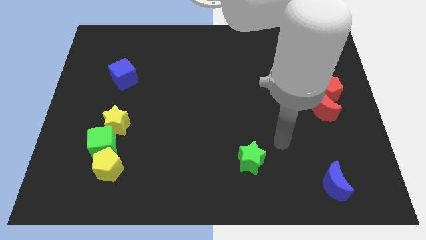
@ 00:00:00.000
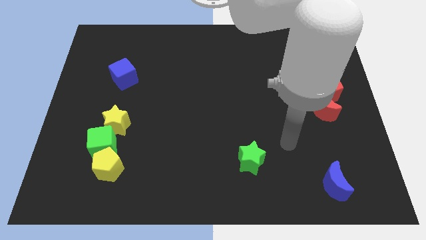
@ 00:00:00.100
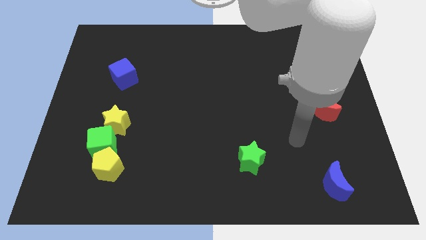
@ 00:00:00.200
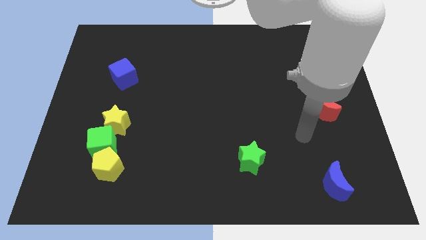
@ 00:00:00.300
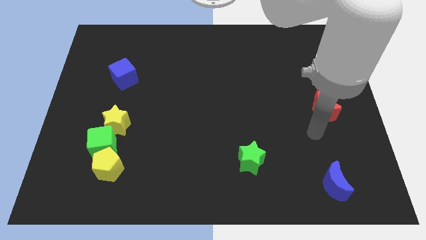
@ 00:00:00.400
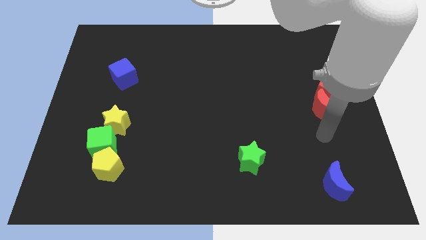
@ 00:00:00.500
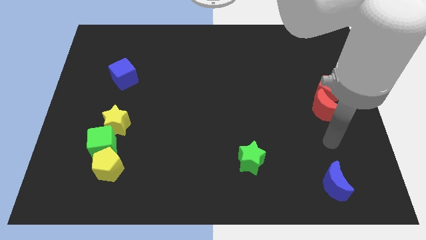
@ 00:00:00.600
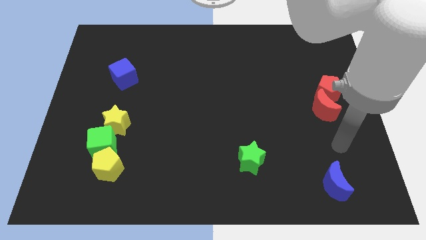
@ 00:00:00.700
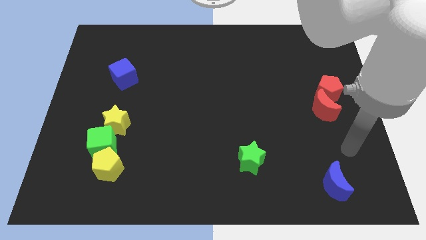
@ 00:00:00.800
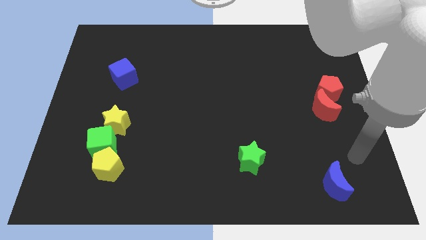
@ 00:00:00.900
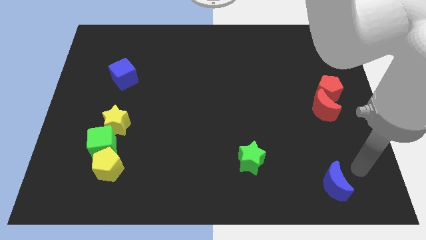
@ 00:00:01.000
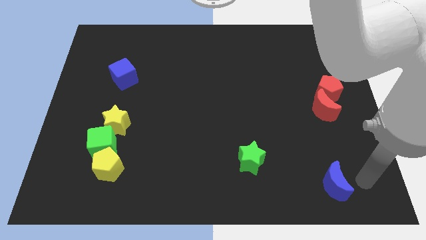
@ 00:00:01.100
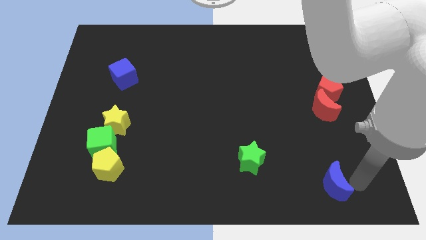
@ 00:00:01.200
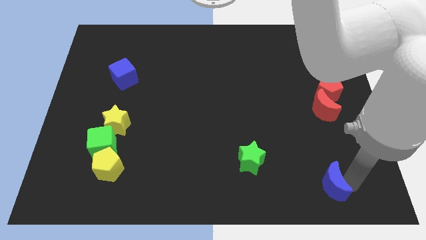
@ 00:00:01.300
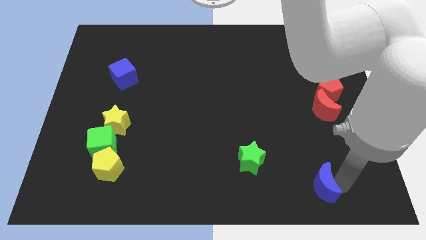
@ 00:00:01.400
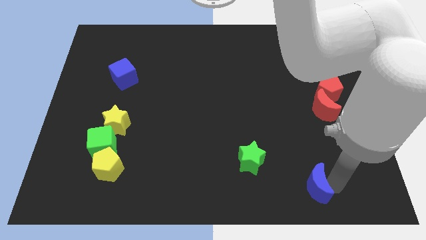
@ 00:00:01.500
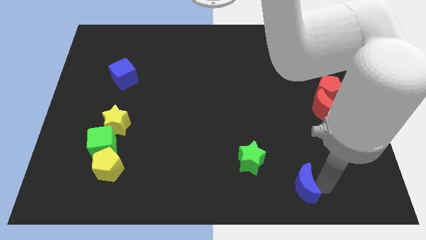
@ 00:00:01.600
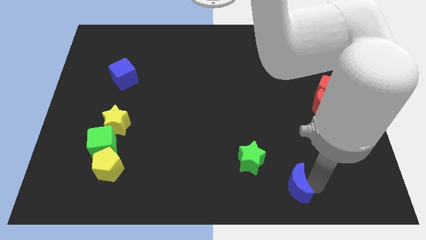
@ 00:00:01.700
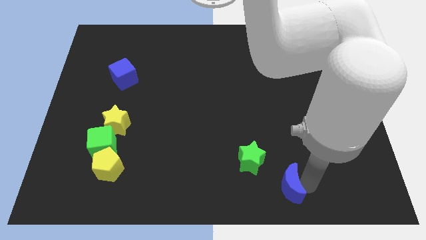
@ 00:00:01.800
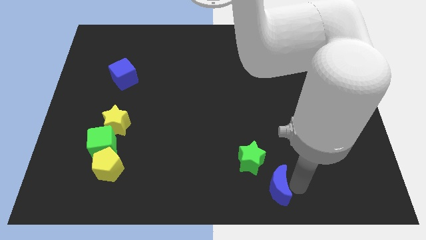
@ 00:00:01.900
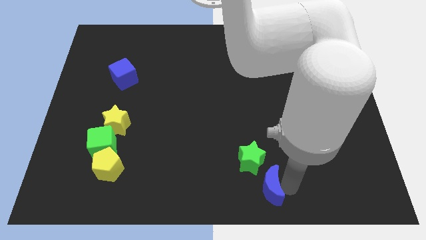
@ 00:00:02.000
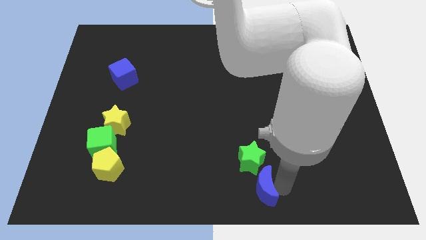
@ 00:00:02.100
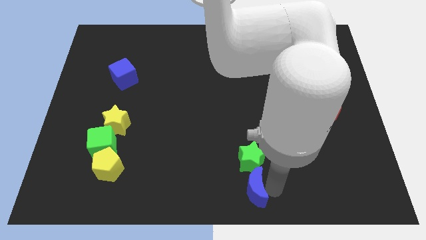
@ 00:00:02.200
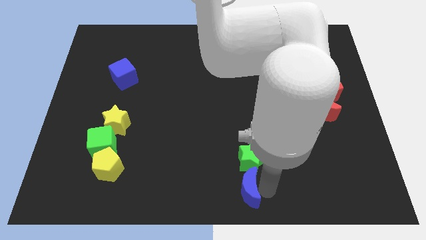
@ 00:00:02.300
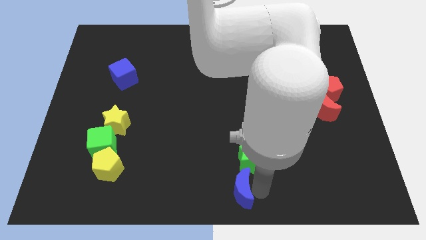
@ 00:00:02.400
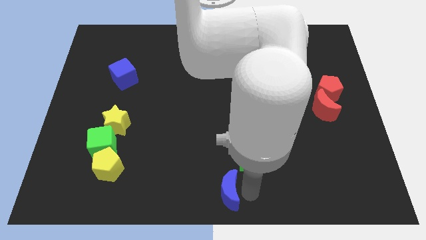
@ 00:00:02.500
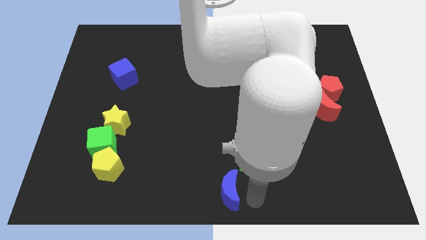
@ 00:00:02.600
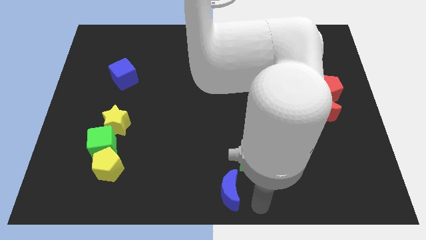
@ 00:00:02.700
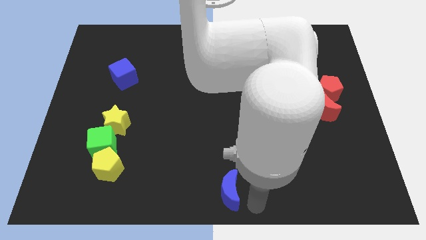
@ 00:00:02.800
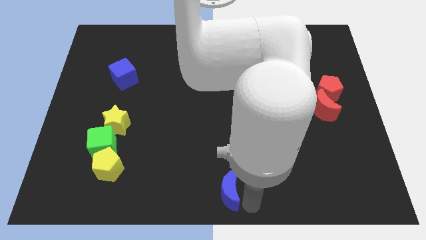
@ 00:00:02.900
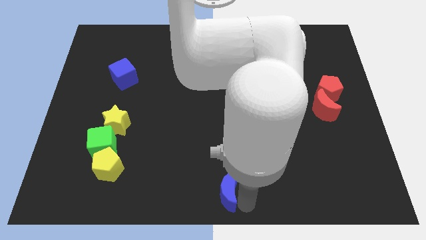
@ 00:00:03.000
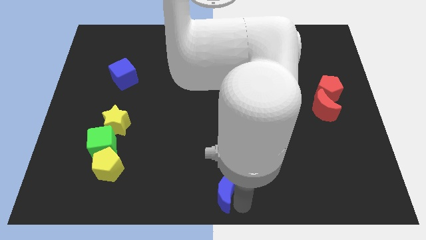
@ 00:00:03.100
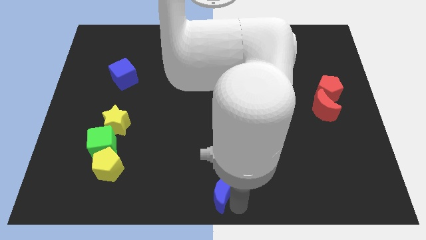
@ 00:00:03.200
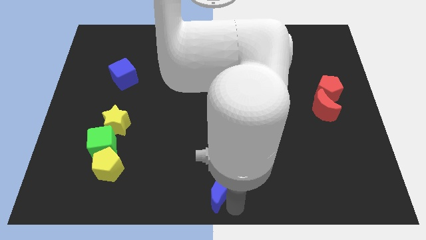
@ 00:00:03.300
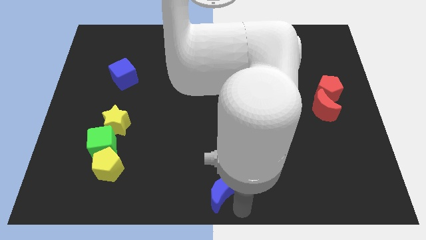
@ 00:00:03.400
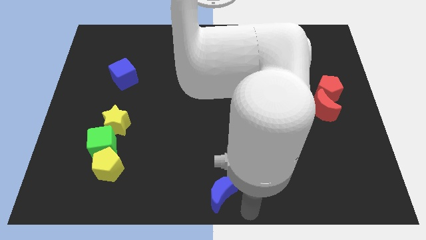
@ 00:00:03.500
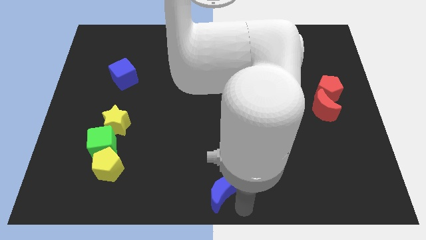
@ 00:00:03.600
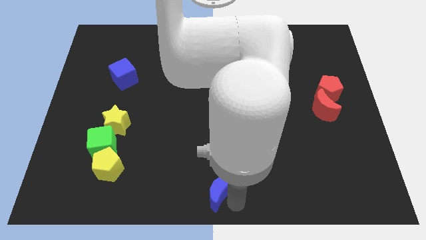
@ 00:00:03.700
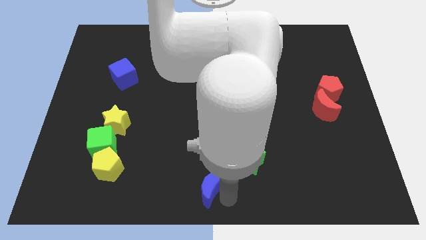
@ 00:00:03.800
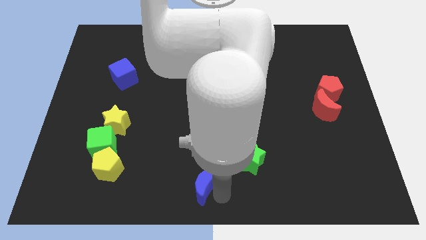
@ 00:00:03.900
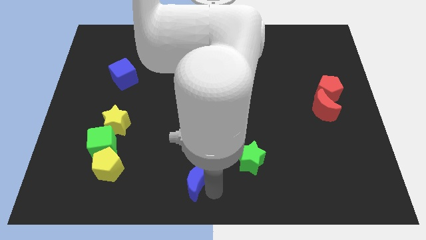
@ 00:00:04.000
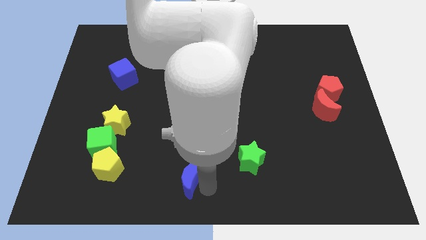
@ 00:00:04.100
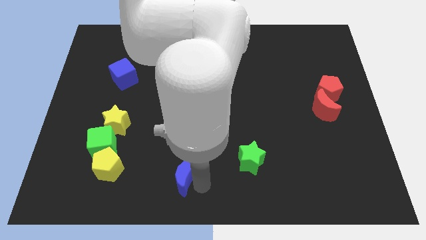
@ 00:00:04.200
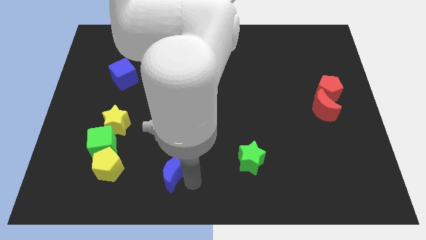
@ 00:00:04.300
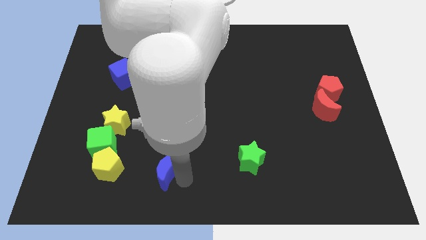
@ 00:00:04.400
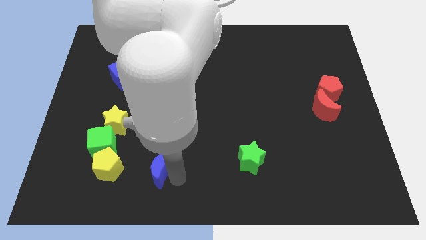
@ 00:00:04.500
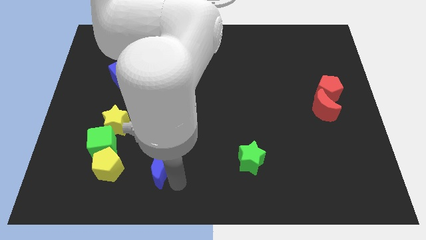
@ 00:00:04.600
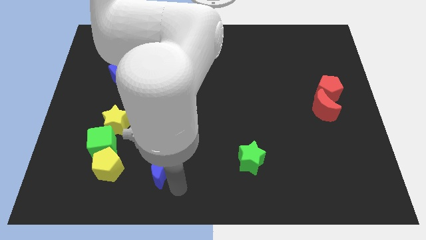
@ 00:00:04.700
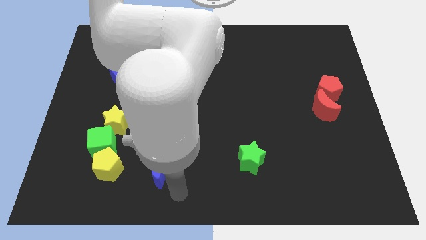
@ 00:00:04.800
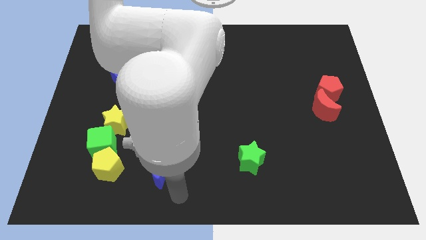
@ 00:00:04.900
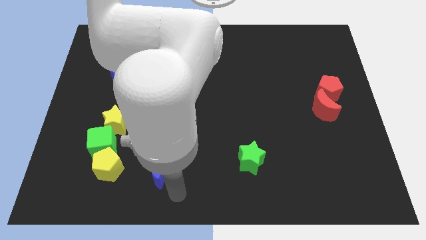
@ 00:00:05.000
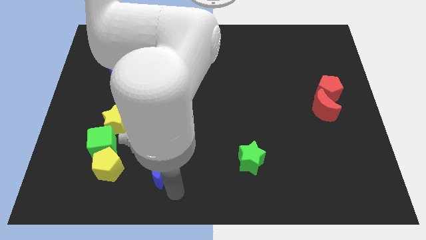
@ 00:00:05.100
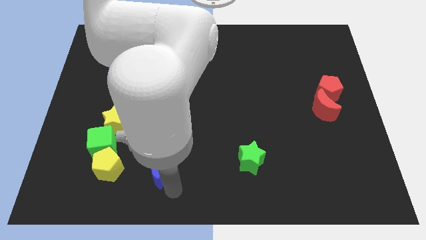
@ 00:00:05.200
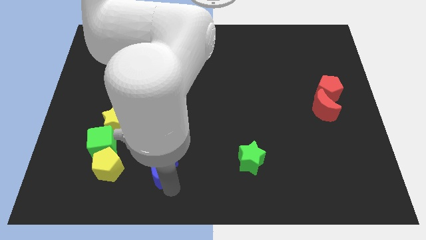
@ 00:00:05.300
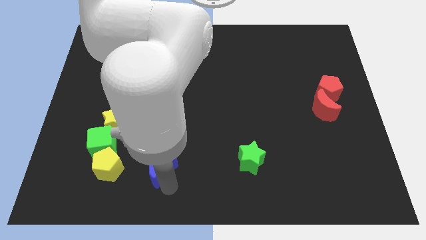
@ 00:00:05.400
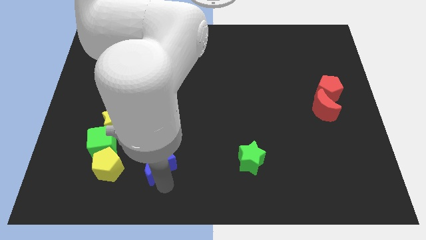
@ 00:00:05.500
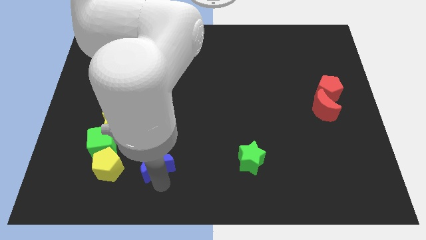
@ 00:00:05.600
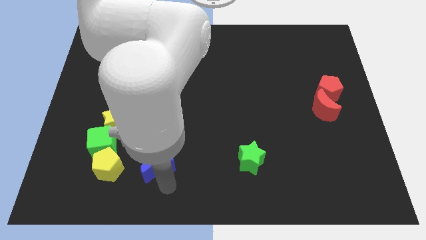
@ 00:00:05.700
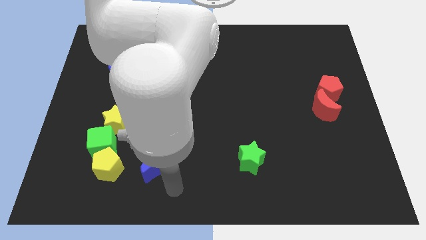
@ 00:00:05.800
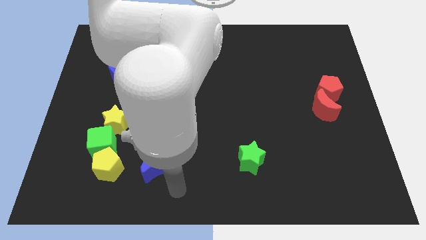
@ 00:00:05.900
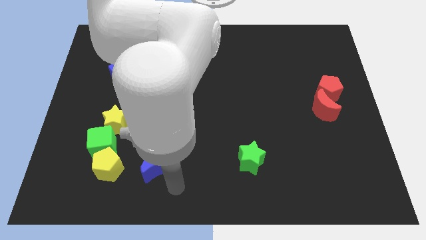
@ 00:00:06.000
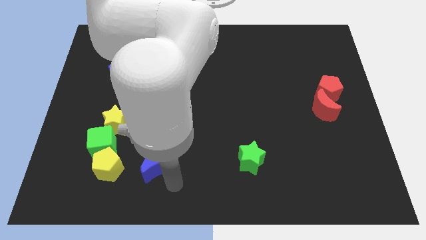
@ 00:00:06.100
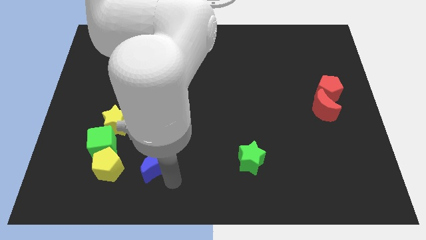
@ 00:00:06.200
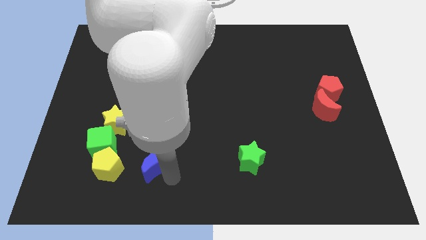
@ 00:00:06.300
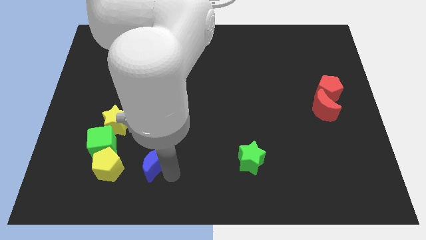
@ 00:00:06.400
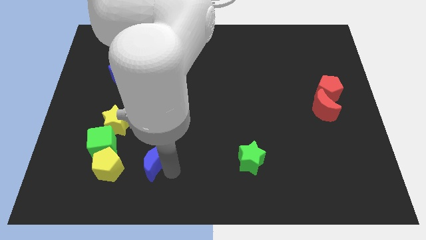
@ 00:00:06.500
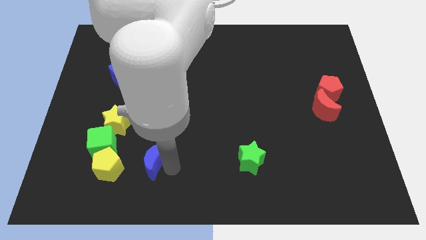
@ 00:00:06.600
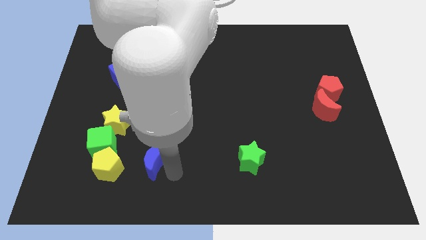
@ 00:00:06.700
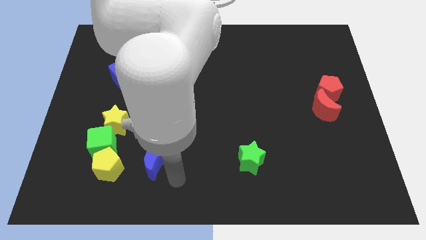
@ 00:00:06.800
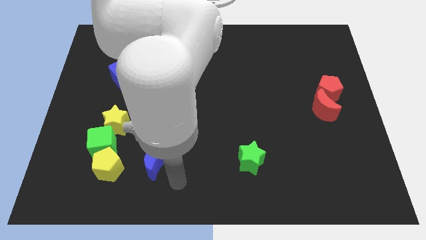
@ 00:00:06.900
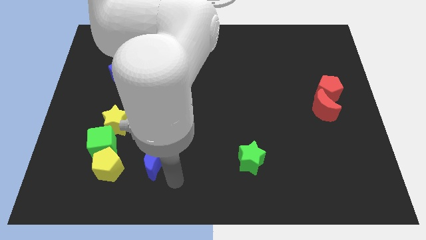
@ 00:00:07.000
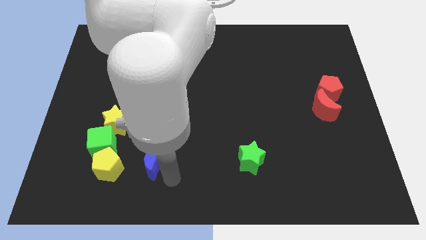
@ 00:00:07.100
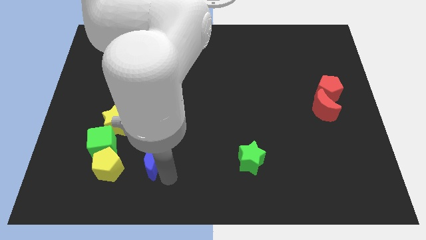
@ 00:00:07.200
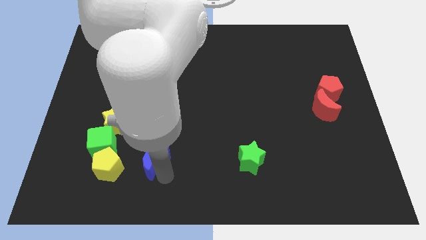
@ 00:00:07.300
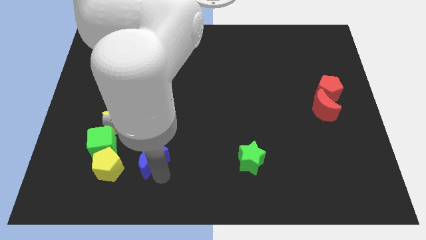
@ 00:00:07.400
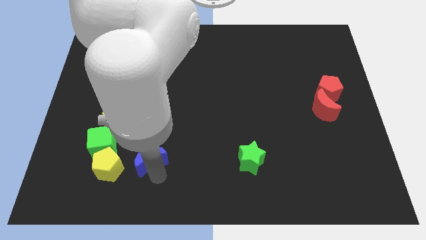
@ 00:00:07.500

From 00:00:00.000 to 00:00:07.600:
put the blue moon to the top right side of the yellow pentagon
